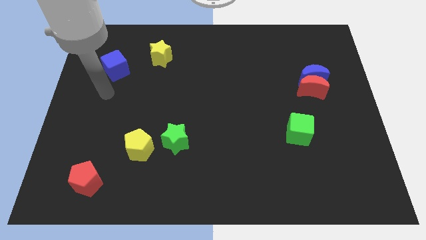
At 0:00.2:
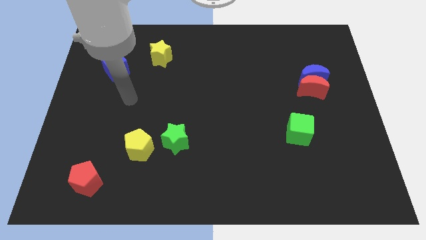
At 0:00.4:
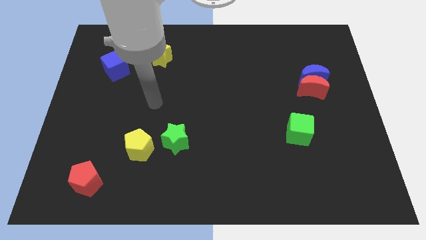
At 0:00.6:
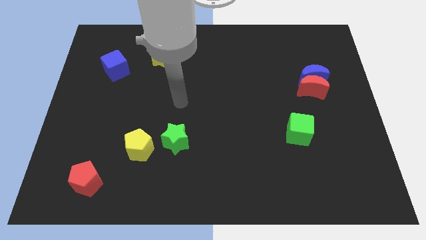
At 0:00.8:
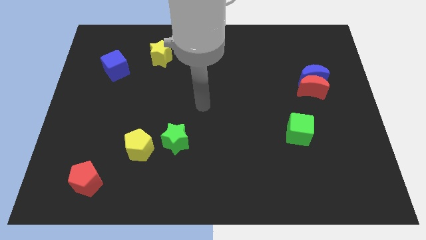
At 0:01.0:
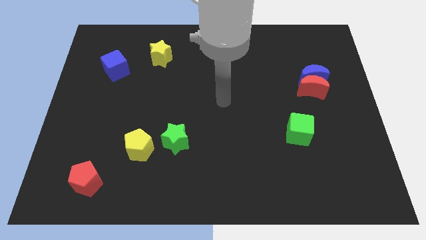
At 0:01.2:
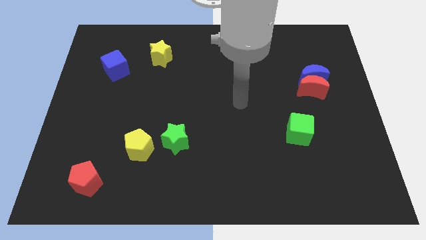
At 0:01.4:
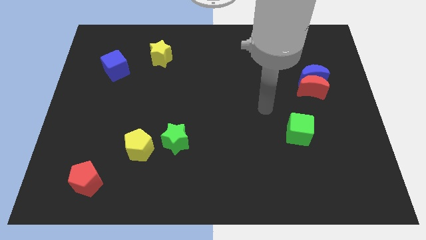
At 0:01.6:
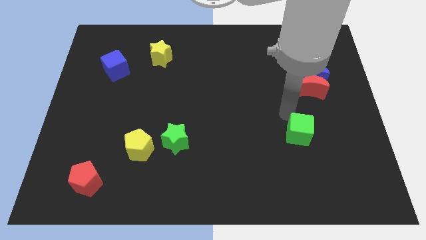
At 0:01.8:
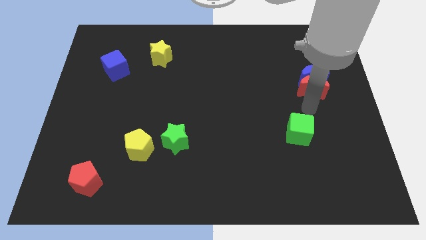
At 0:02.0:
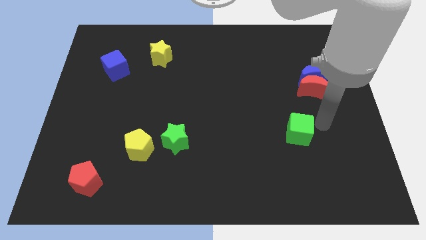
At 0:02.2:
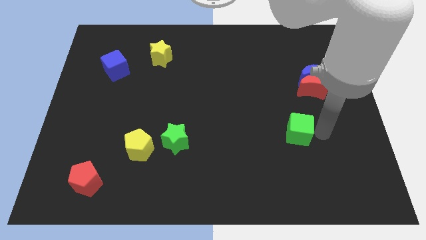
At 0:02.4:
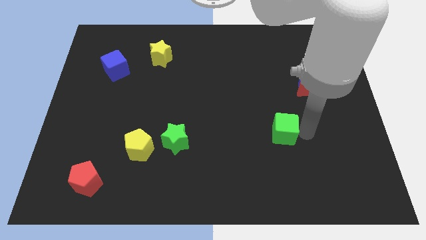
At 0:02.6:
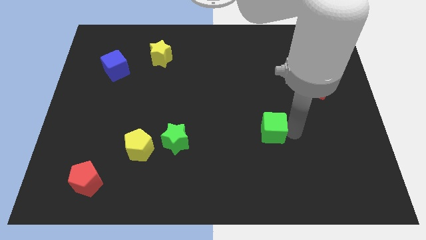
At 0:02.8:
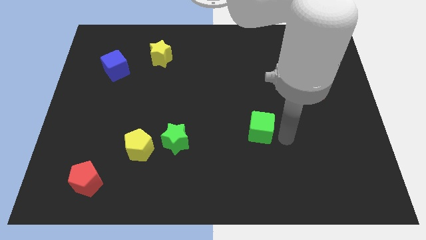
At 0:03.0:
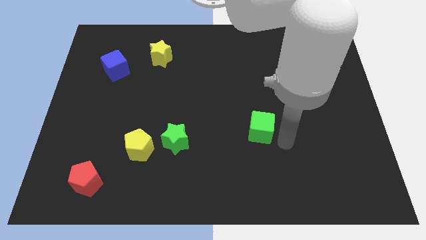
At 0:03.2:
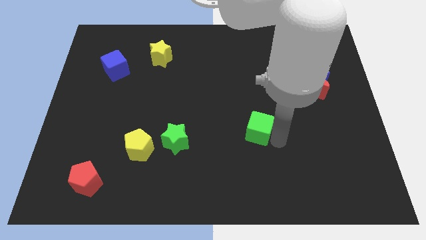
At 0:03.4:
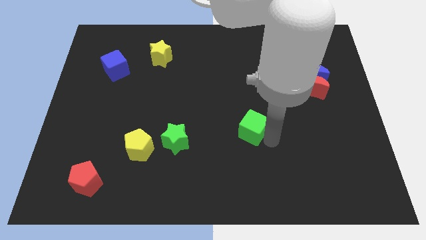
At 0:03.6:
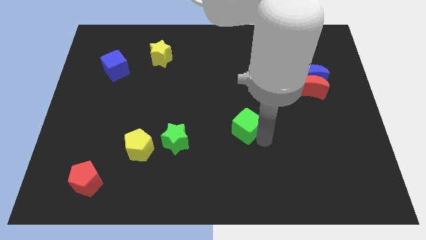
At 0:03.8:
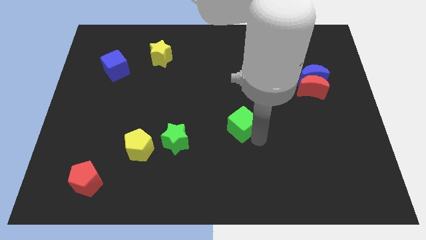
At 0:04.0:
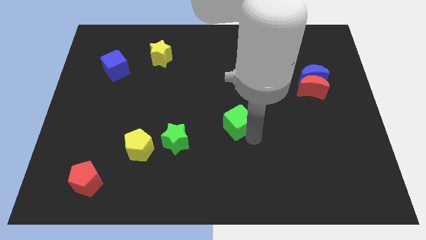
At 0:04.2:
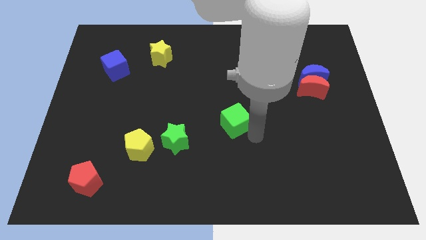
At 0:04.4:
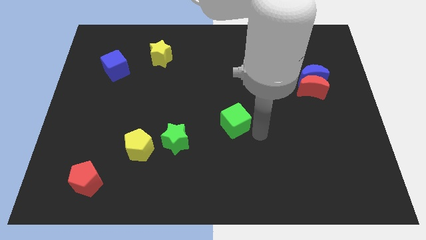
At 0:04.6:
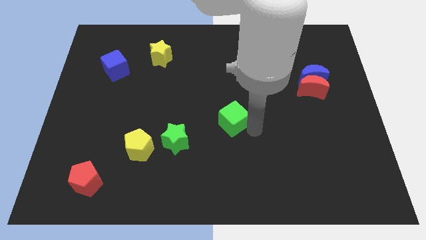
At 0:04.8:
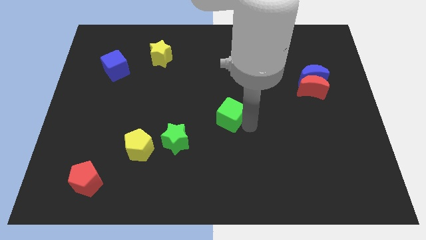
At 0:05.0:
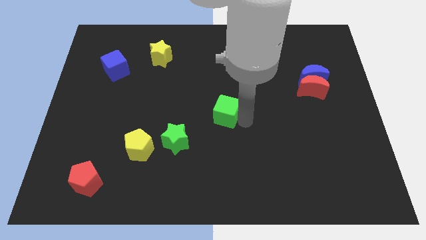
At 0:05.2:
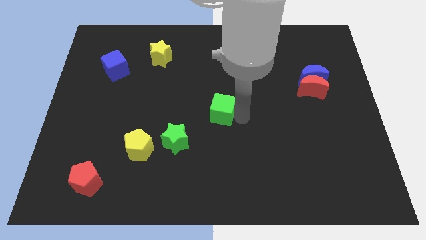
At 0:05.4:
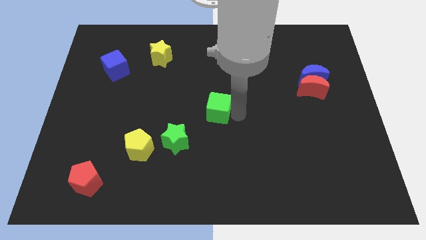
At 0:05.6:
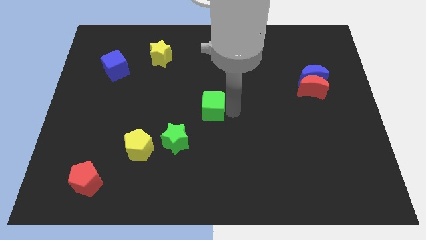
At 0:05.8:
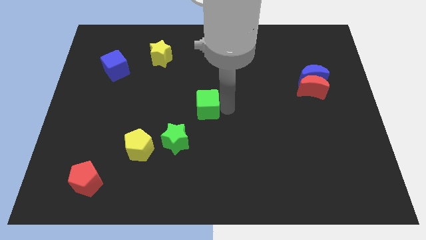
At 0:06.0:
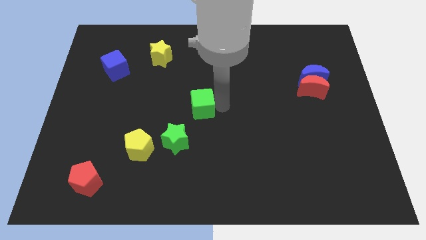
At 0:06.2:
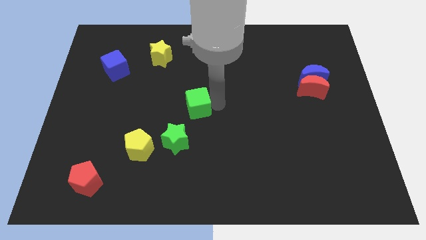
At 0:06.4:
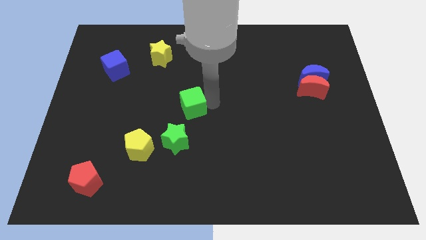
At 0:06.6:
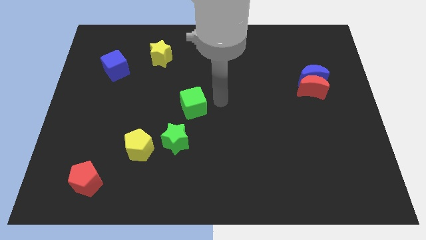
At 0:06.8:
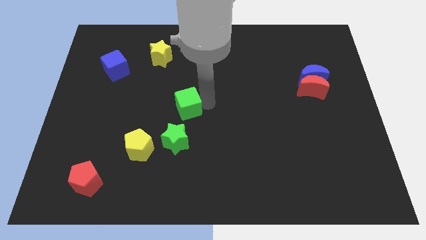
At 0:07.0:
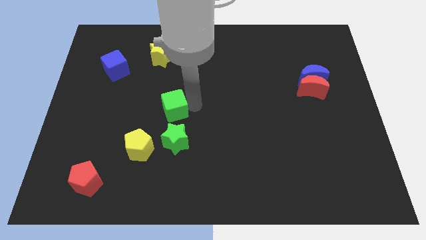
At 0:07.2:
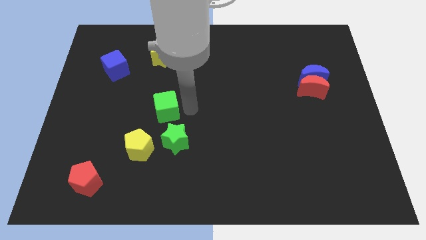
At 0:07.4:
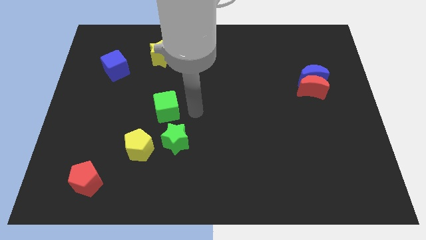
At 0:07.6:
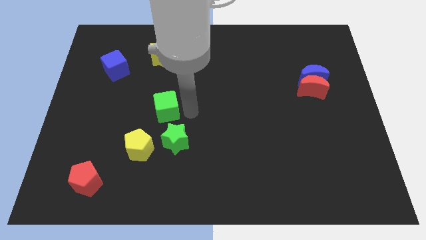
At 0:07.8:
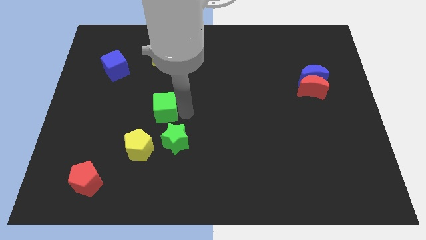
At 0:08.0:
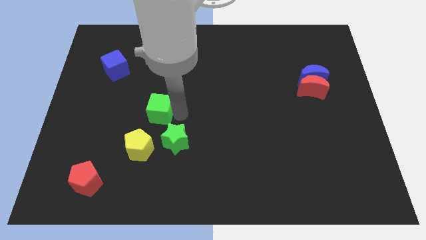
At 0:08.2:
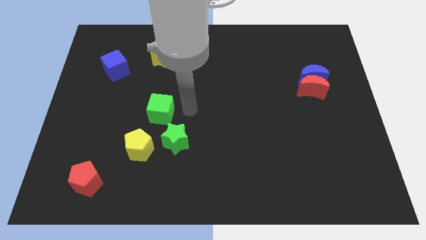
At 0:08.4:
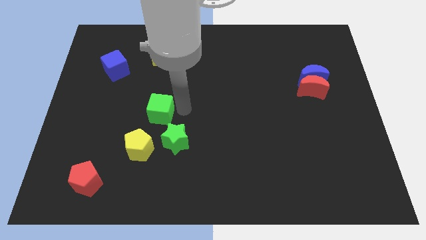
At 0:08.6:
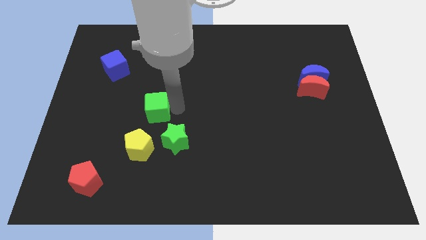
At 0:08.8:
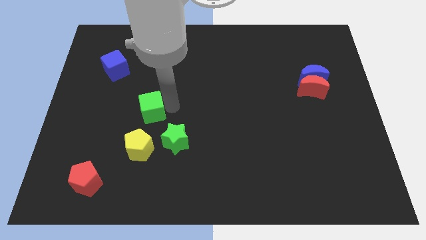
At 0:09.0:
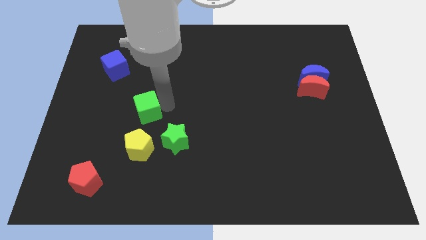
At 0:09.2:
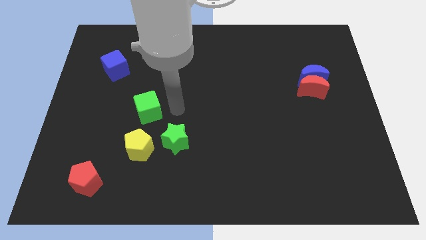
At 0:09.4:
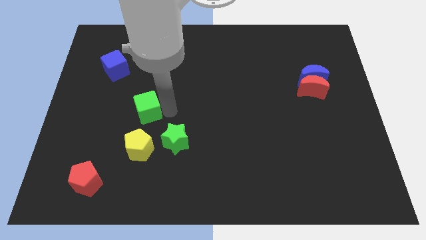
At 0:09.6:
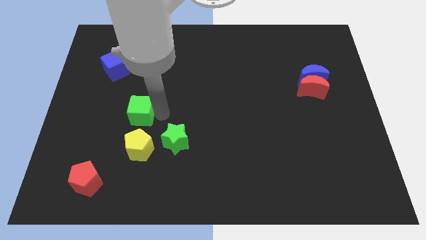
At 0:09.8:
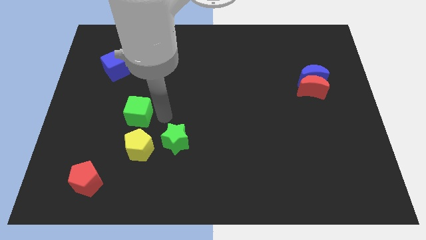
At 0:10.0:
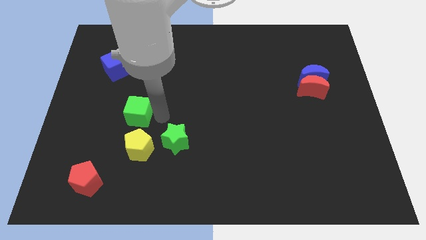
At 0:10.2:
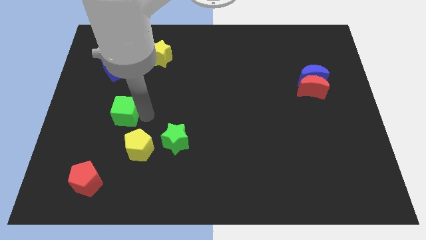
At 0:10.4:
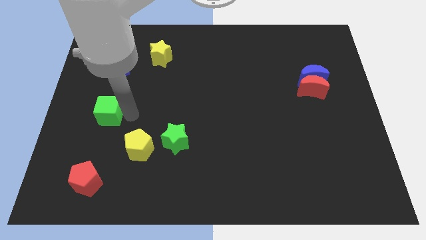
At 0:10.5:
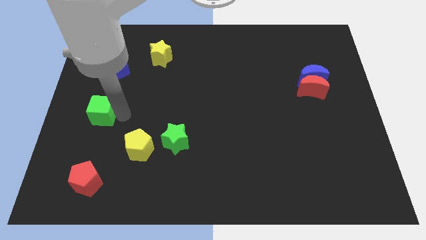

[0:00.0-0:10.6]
move the green cube to the center left

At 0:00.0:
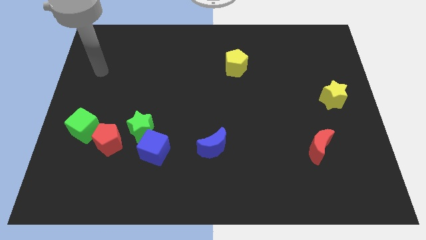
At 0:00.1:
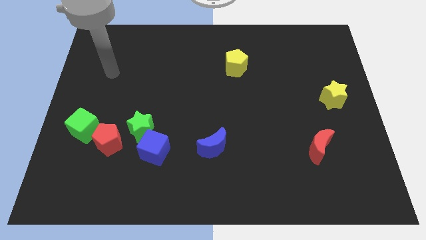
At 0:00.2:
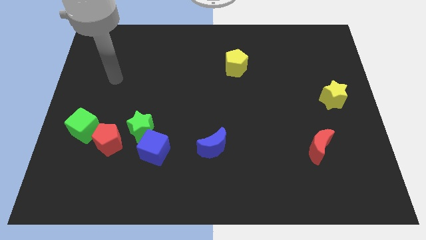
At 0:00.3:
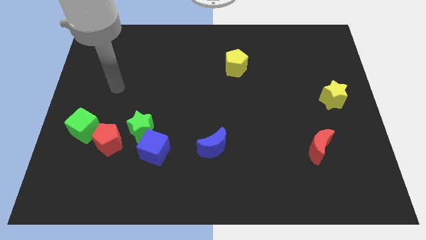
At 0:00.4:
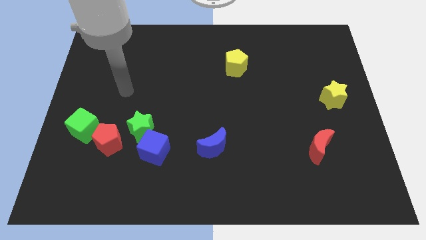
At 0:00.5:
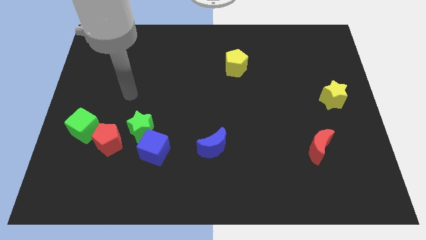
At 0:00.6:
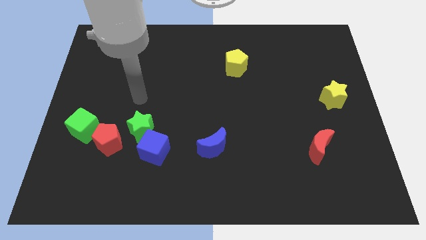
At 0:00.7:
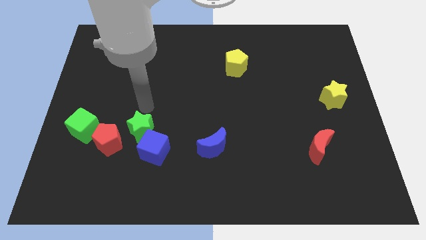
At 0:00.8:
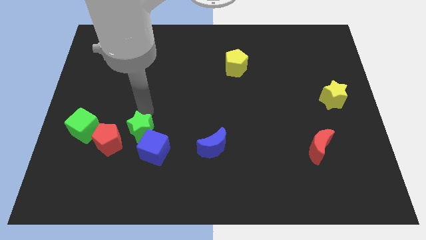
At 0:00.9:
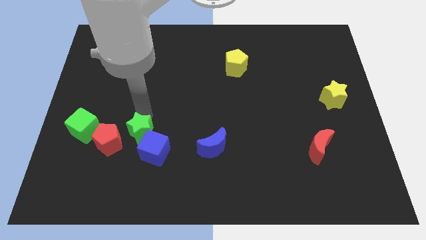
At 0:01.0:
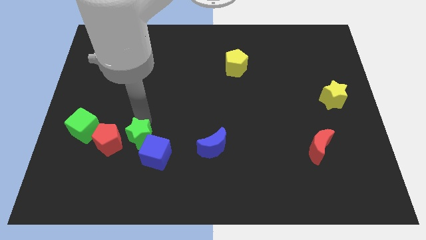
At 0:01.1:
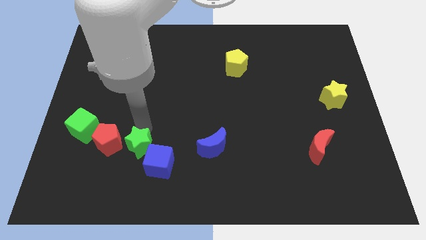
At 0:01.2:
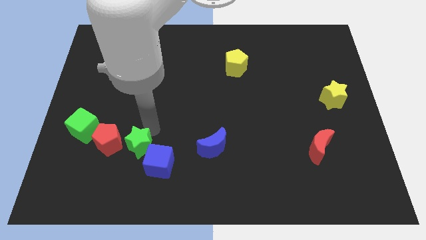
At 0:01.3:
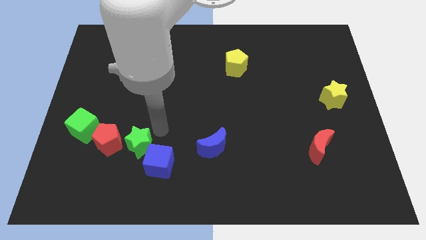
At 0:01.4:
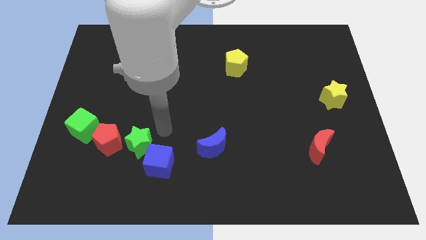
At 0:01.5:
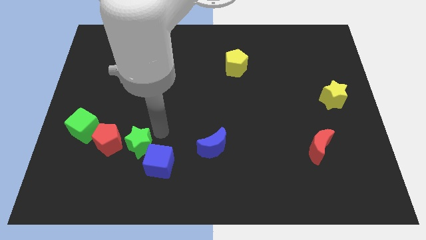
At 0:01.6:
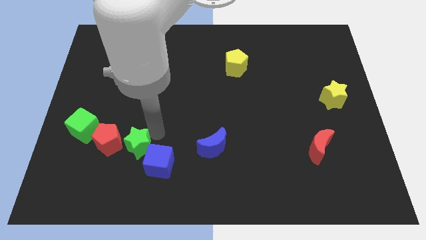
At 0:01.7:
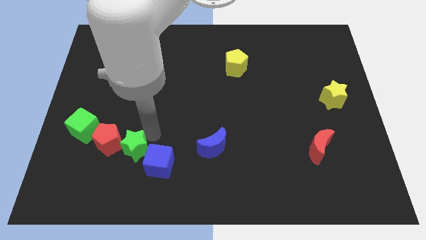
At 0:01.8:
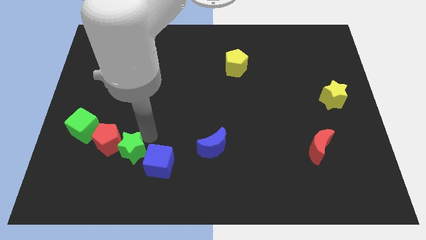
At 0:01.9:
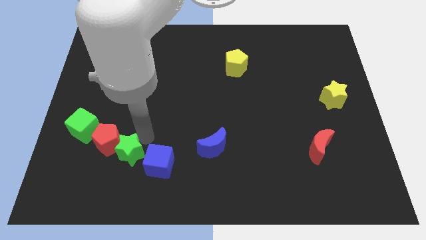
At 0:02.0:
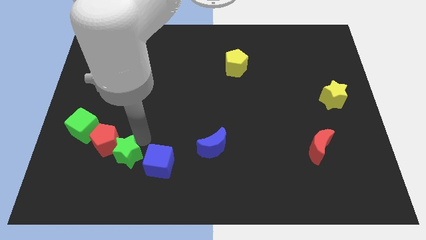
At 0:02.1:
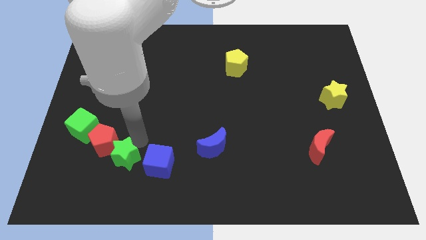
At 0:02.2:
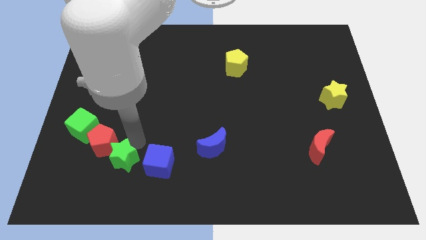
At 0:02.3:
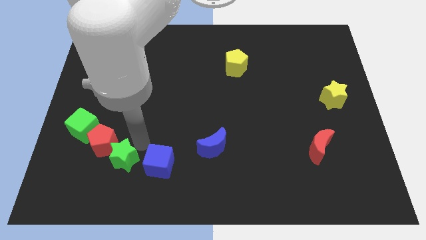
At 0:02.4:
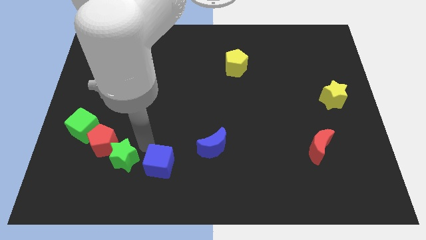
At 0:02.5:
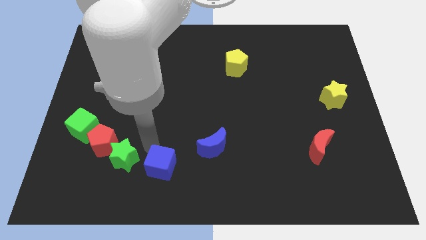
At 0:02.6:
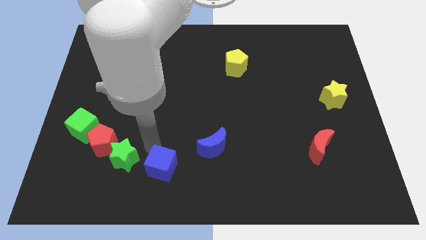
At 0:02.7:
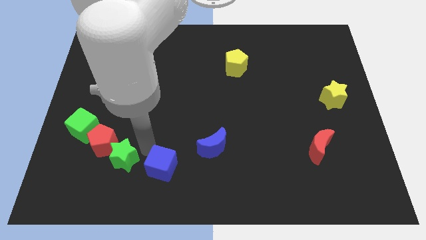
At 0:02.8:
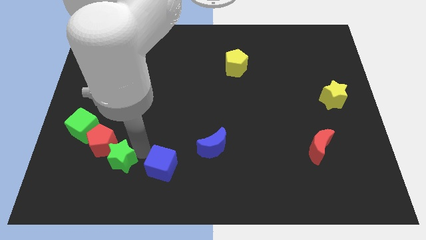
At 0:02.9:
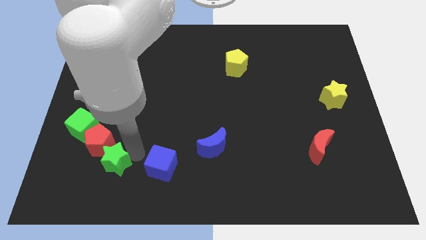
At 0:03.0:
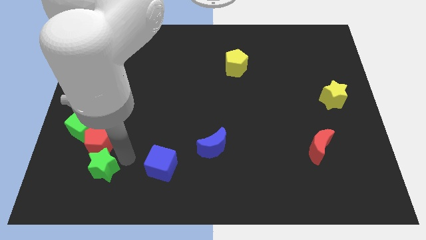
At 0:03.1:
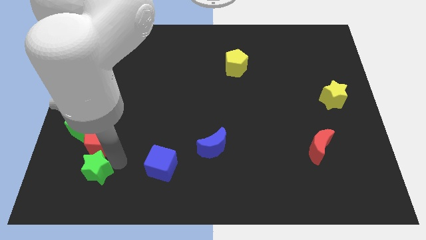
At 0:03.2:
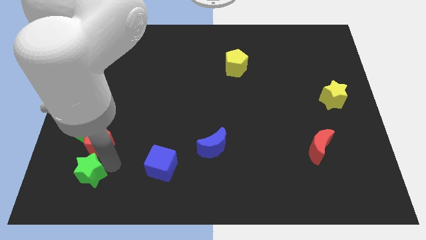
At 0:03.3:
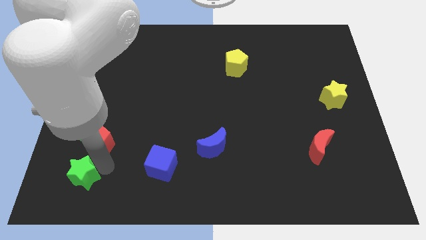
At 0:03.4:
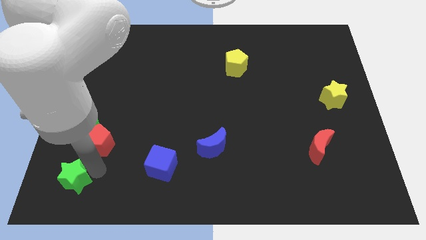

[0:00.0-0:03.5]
put the green star to the bottom left of the board
